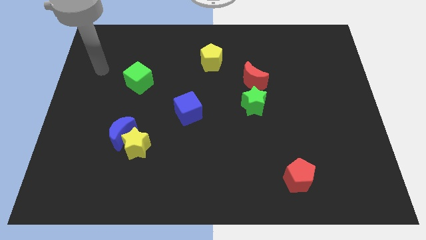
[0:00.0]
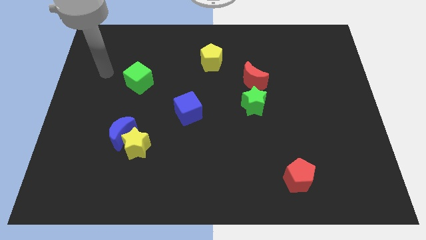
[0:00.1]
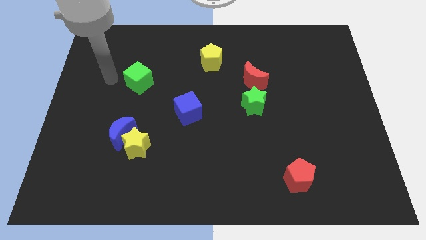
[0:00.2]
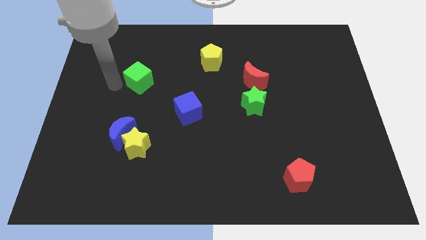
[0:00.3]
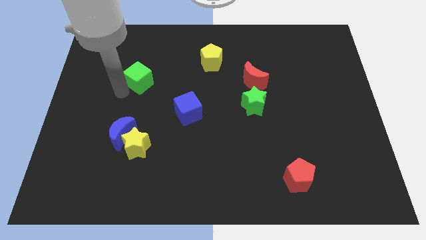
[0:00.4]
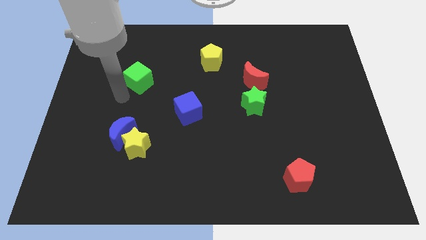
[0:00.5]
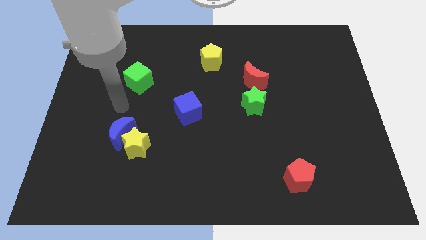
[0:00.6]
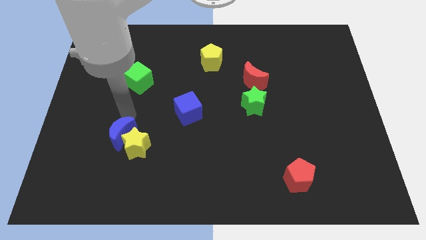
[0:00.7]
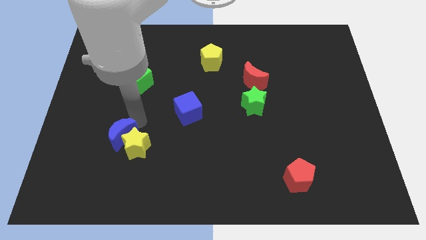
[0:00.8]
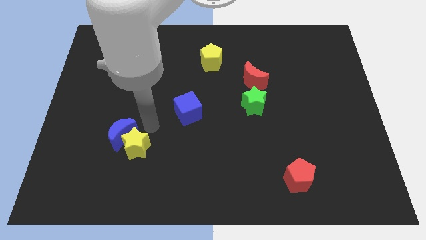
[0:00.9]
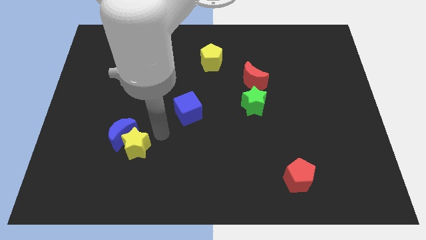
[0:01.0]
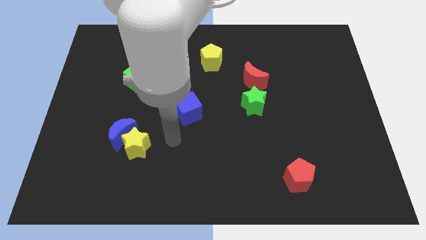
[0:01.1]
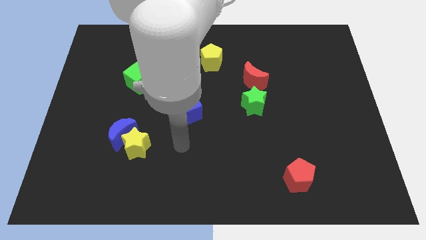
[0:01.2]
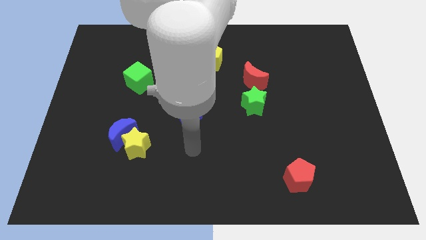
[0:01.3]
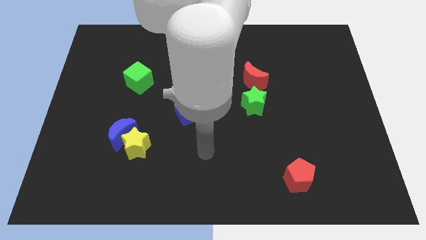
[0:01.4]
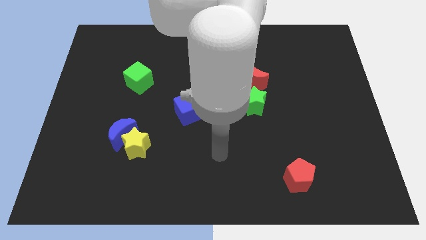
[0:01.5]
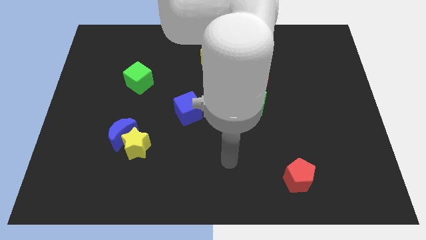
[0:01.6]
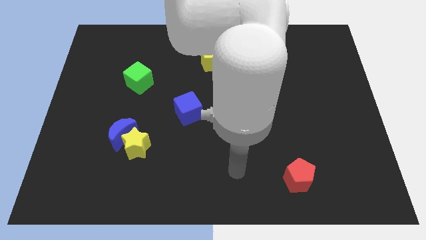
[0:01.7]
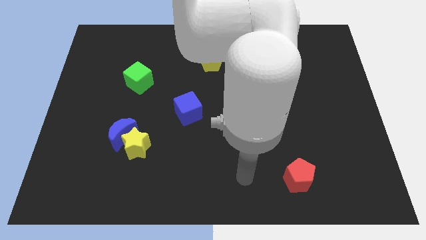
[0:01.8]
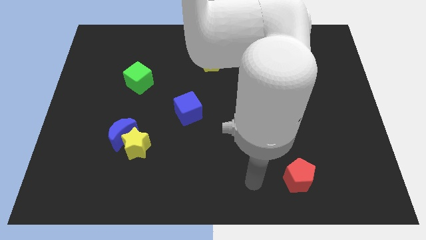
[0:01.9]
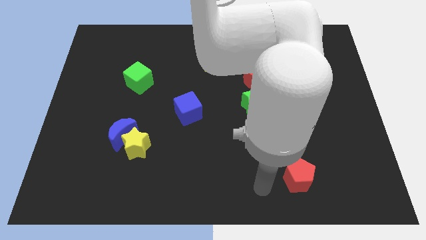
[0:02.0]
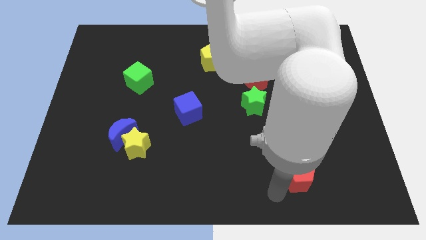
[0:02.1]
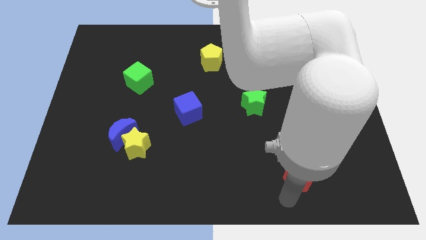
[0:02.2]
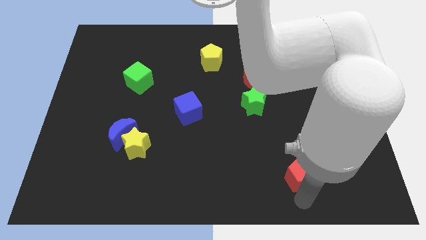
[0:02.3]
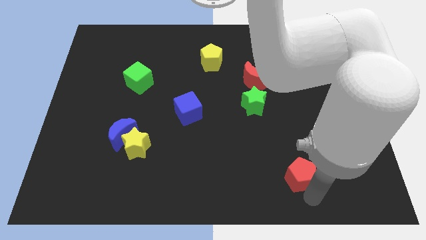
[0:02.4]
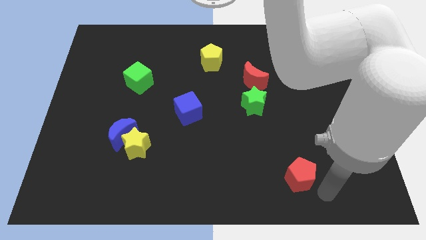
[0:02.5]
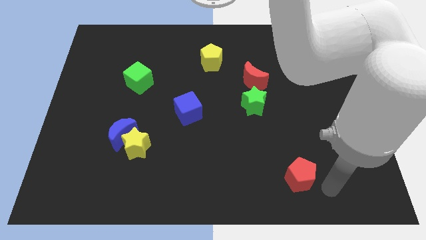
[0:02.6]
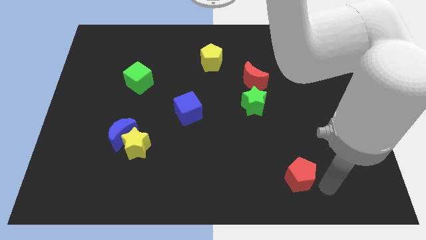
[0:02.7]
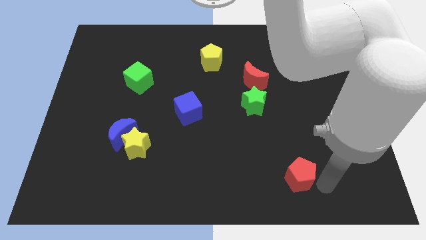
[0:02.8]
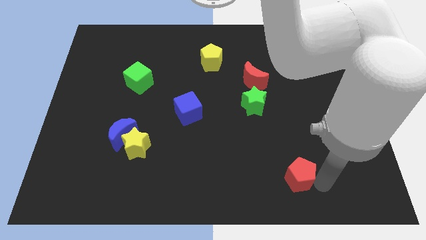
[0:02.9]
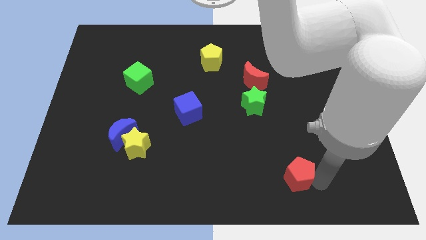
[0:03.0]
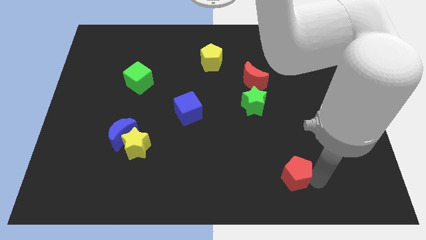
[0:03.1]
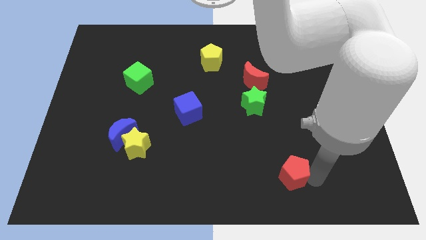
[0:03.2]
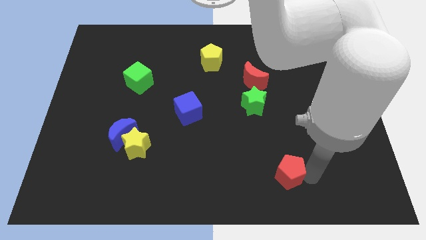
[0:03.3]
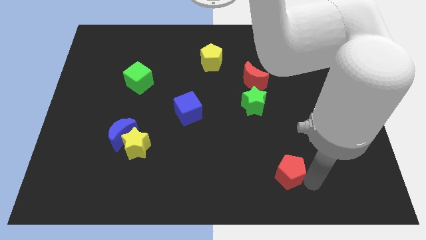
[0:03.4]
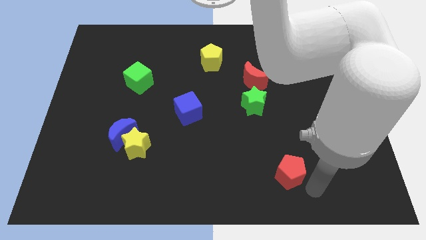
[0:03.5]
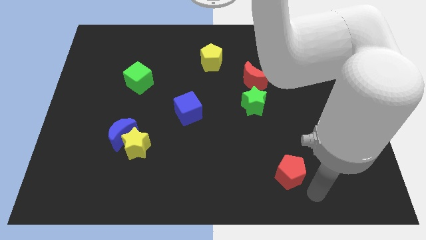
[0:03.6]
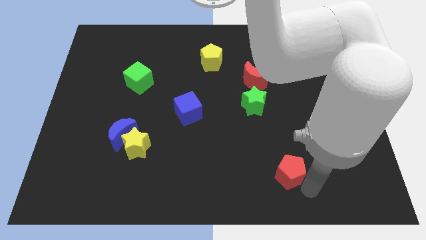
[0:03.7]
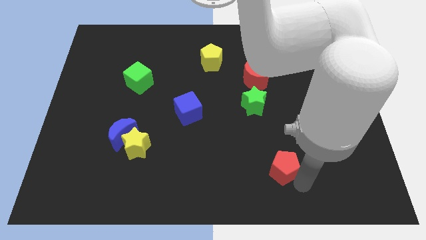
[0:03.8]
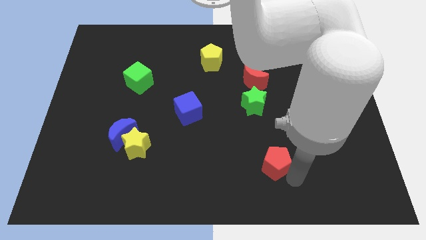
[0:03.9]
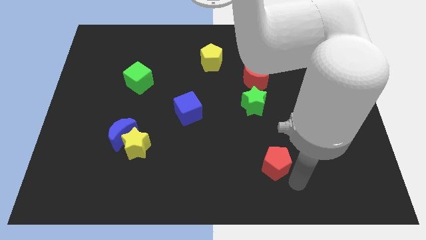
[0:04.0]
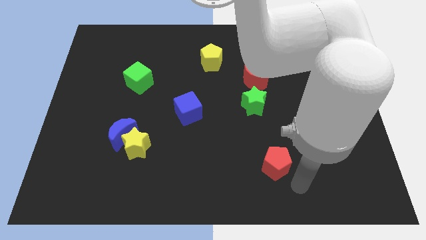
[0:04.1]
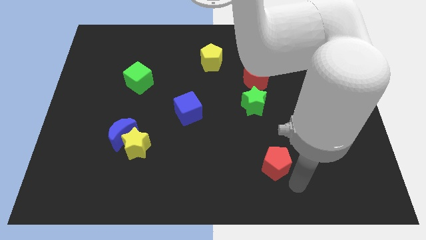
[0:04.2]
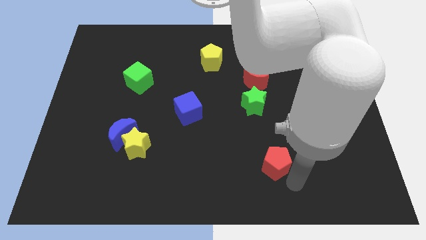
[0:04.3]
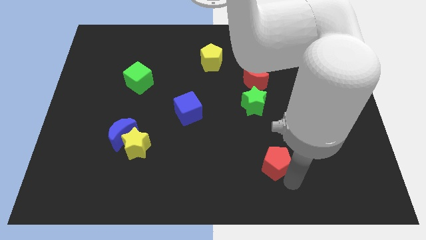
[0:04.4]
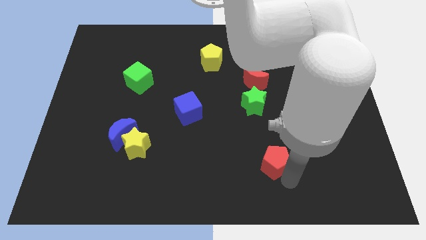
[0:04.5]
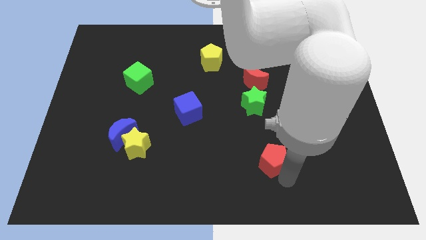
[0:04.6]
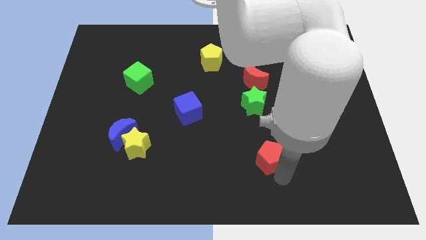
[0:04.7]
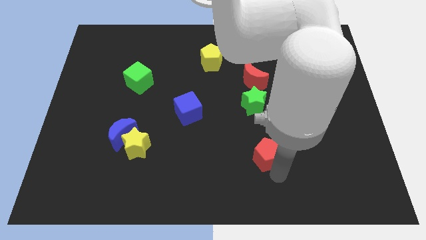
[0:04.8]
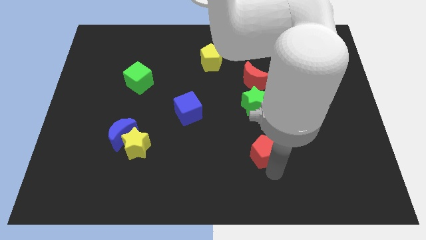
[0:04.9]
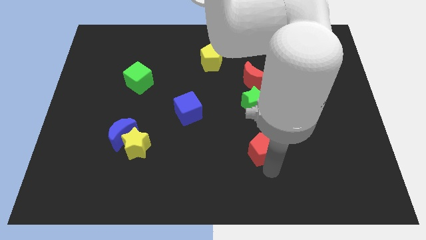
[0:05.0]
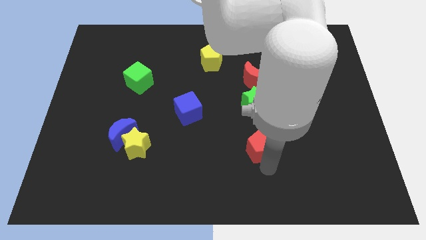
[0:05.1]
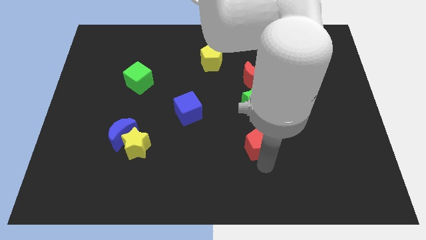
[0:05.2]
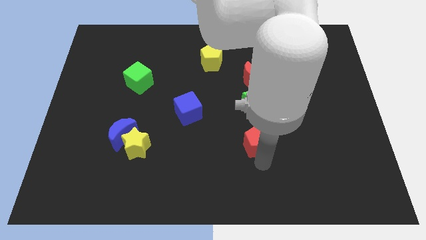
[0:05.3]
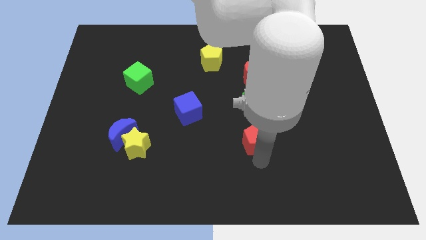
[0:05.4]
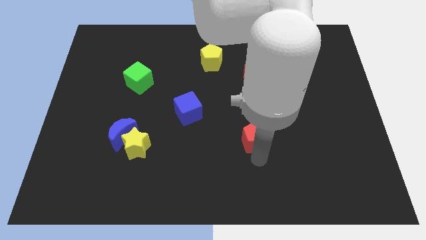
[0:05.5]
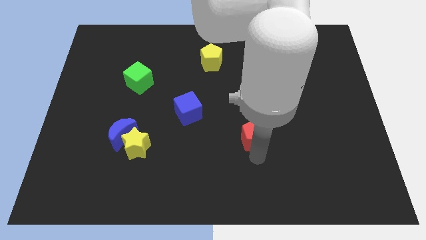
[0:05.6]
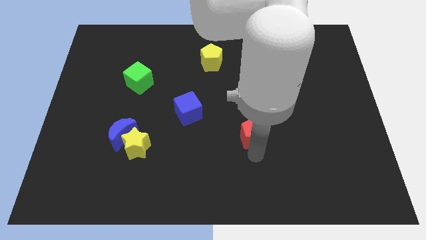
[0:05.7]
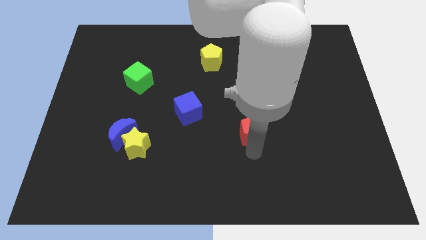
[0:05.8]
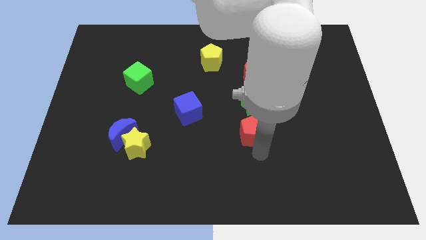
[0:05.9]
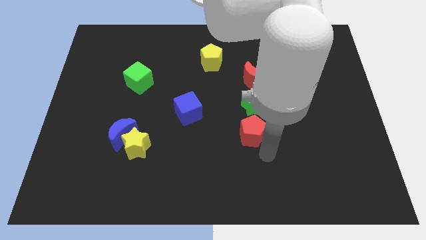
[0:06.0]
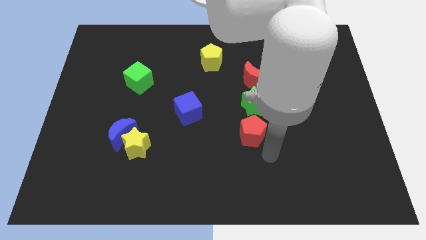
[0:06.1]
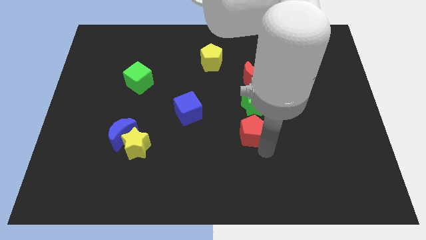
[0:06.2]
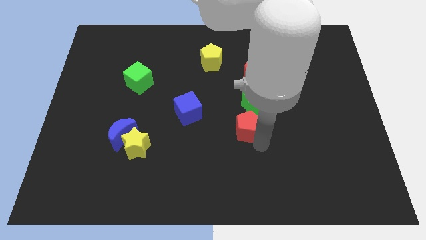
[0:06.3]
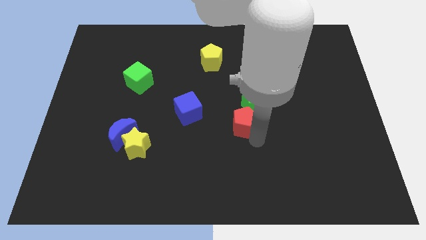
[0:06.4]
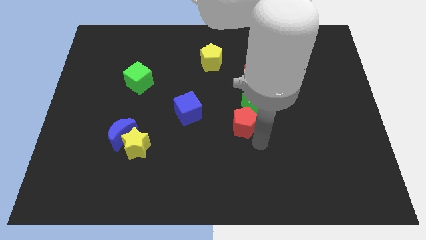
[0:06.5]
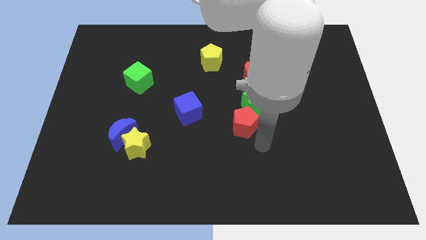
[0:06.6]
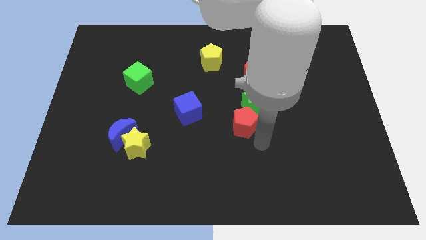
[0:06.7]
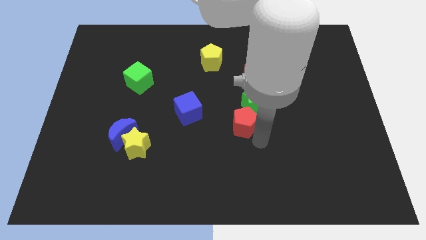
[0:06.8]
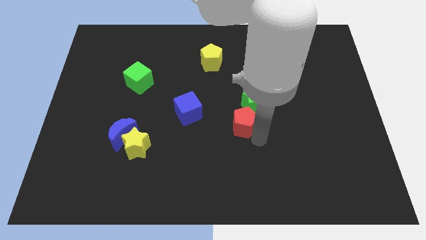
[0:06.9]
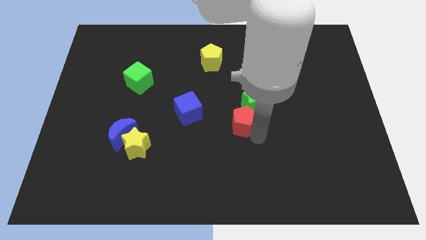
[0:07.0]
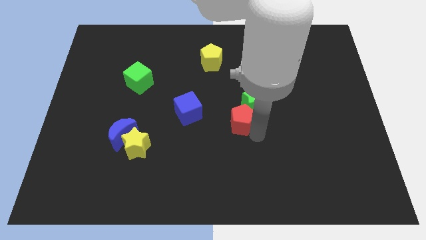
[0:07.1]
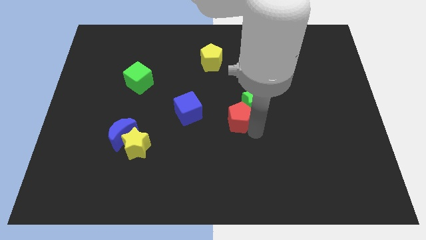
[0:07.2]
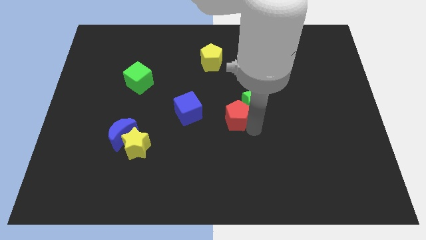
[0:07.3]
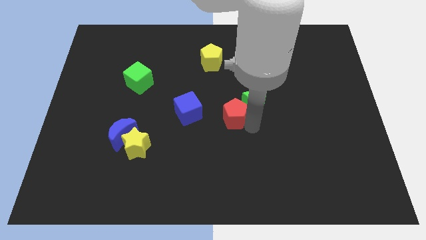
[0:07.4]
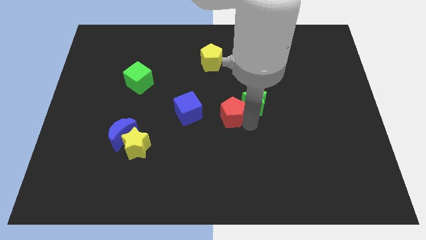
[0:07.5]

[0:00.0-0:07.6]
slide the red pentagon upwards and left

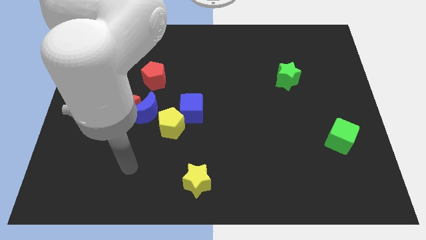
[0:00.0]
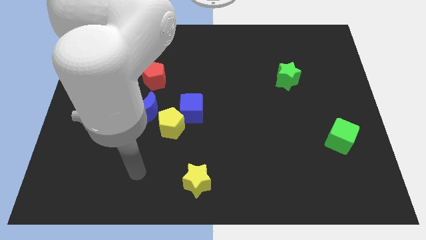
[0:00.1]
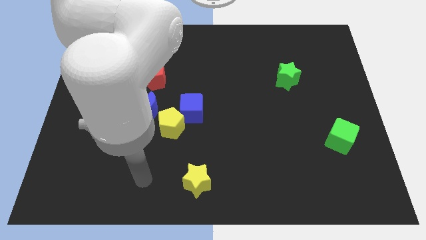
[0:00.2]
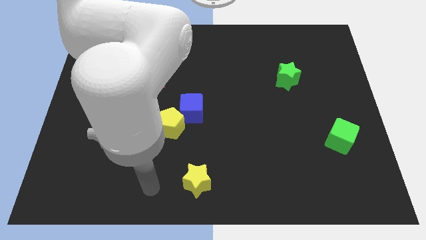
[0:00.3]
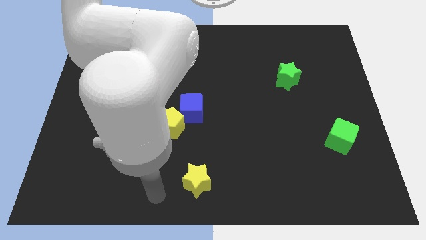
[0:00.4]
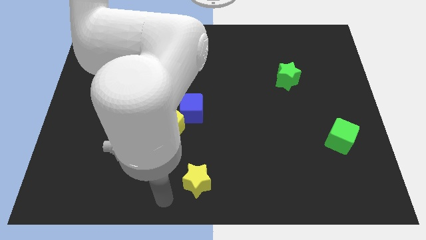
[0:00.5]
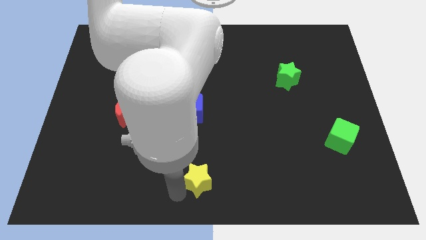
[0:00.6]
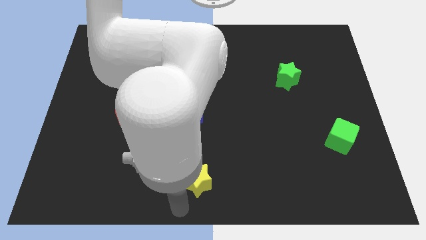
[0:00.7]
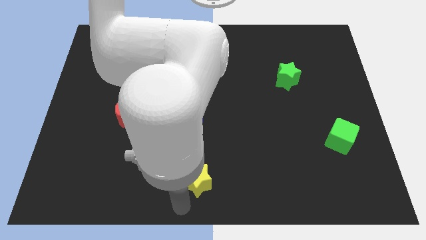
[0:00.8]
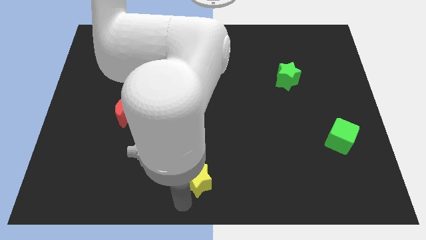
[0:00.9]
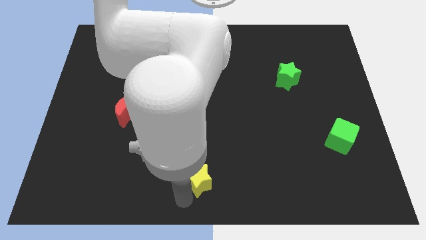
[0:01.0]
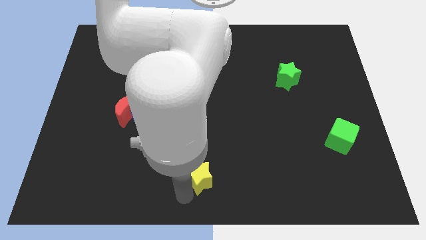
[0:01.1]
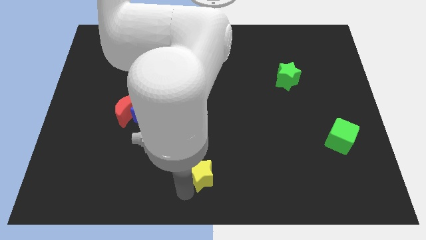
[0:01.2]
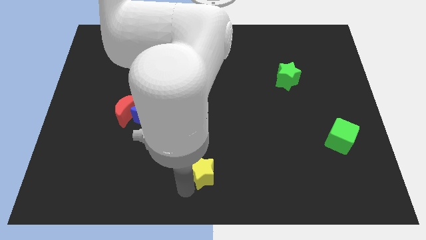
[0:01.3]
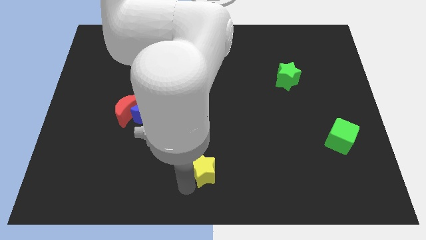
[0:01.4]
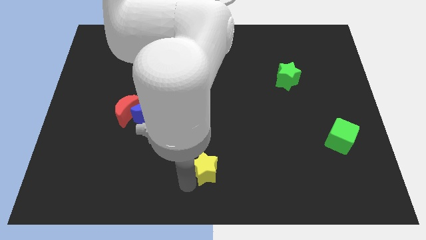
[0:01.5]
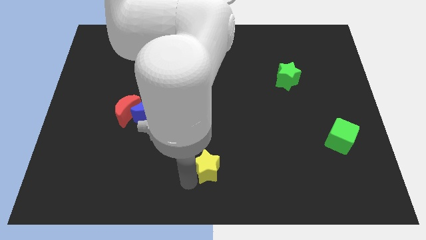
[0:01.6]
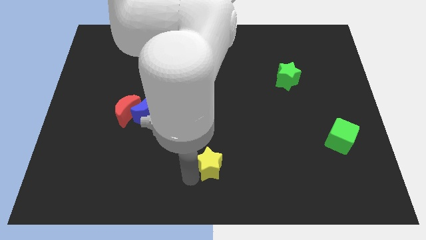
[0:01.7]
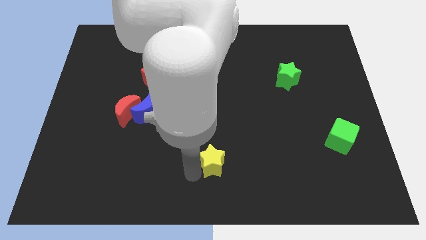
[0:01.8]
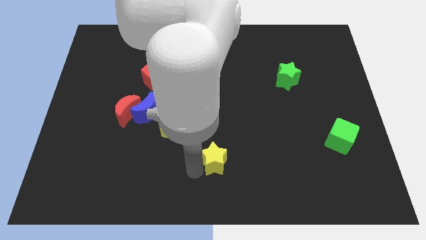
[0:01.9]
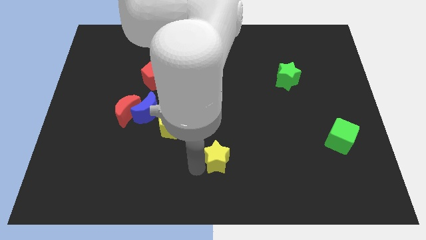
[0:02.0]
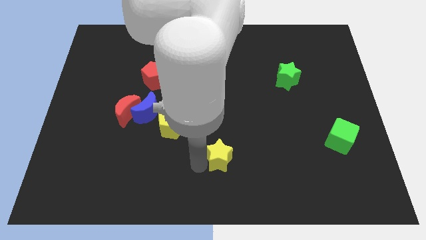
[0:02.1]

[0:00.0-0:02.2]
slide the yellow star up and to the right slightly
